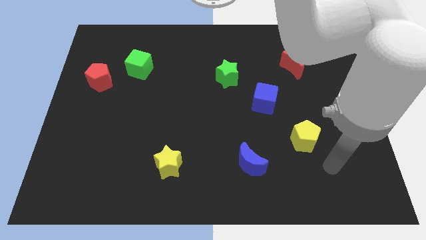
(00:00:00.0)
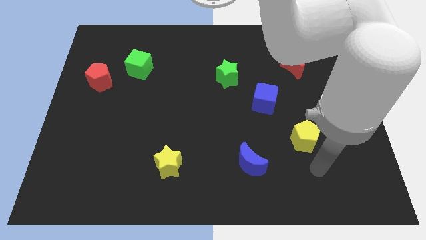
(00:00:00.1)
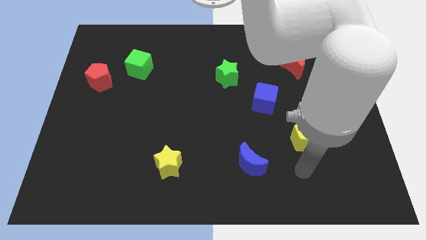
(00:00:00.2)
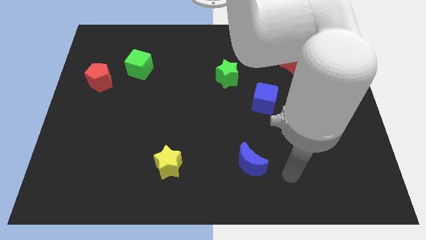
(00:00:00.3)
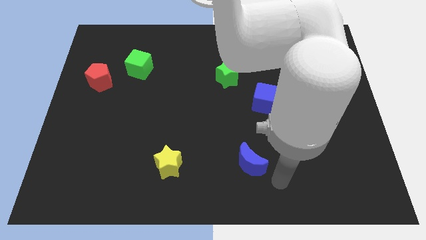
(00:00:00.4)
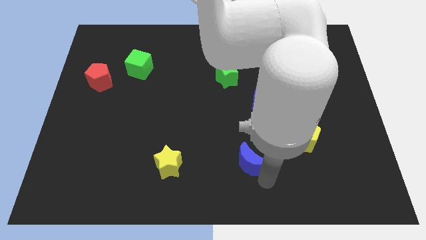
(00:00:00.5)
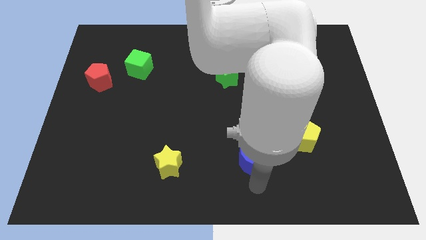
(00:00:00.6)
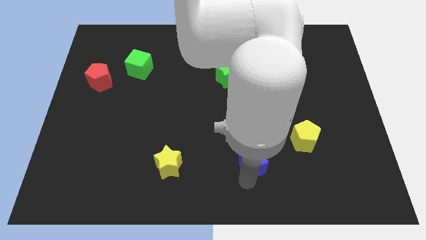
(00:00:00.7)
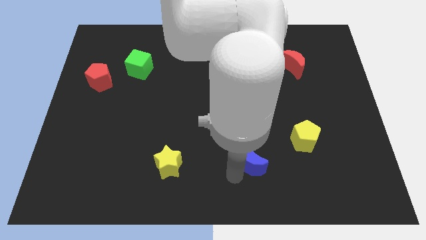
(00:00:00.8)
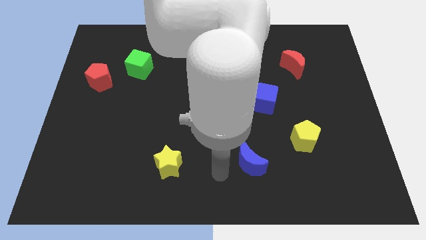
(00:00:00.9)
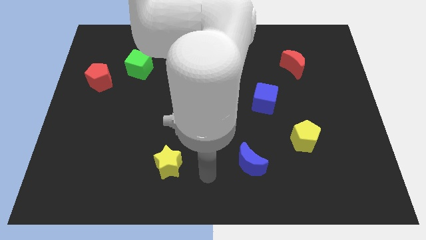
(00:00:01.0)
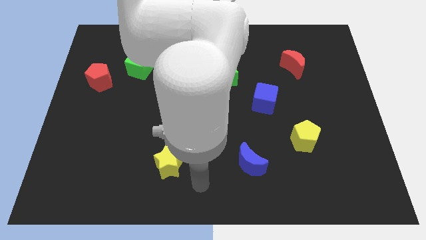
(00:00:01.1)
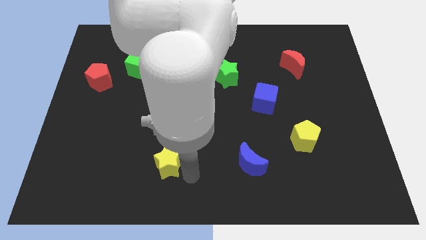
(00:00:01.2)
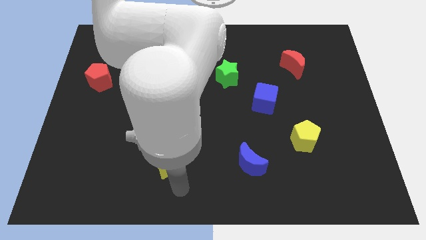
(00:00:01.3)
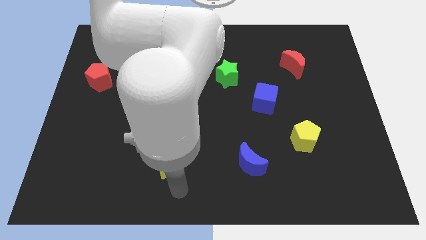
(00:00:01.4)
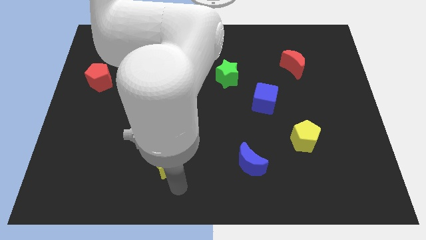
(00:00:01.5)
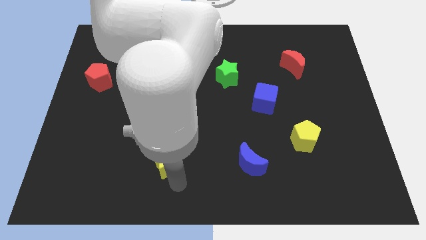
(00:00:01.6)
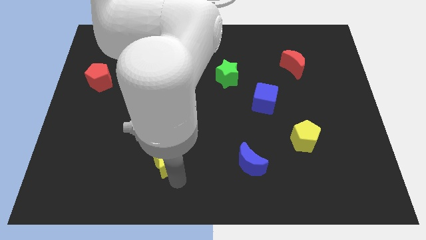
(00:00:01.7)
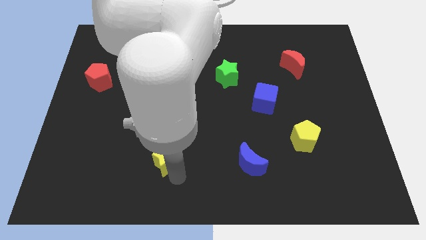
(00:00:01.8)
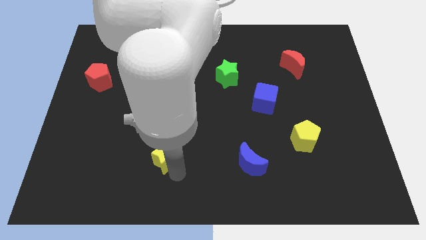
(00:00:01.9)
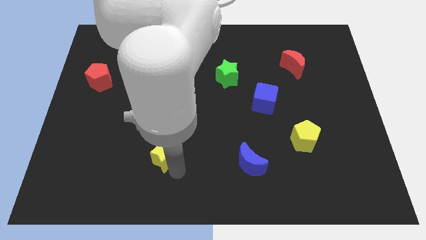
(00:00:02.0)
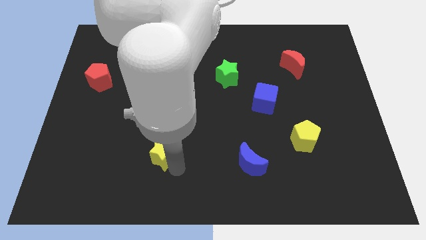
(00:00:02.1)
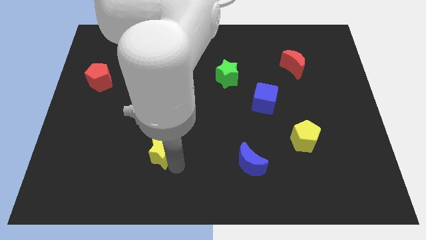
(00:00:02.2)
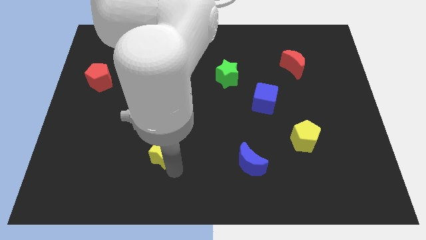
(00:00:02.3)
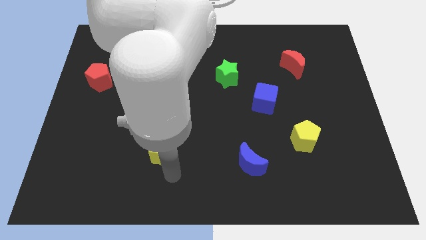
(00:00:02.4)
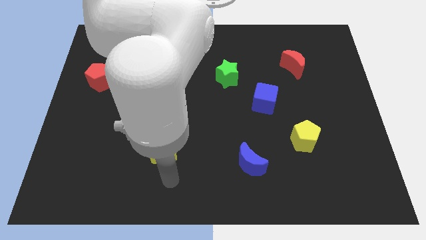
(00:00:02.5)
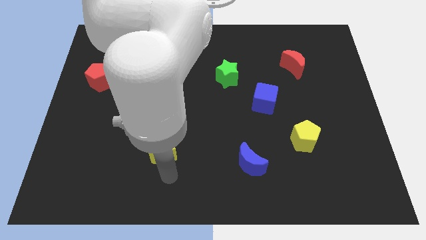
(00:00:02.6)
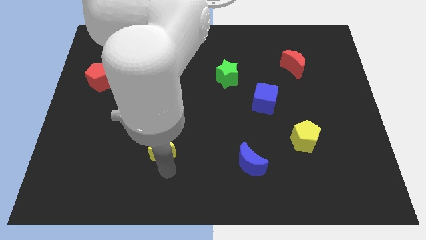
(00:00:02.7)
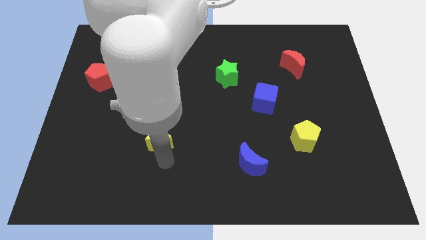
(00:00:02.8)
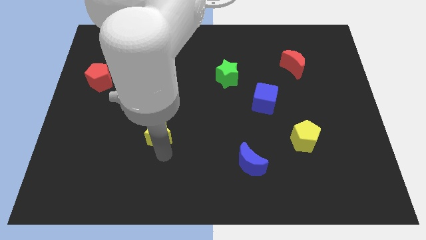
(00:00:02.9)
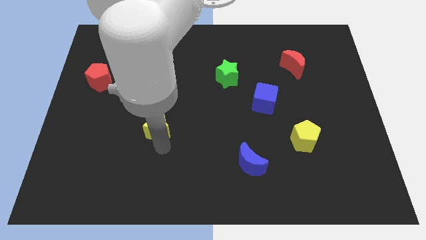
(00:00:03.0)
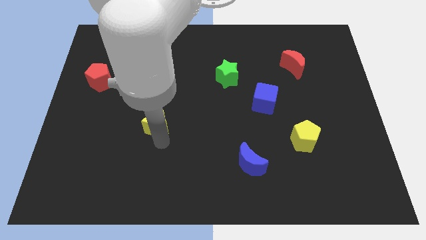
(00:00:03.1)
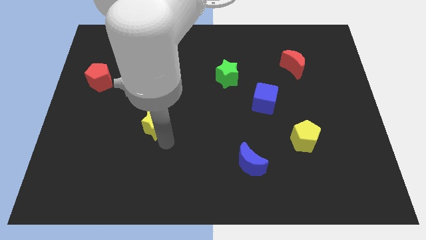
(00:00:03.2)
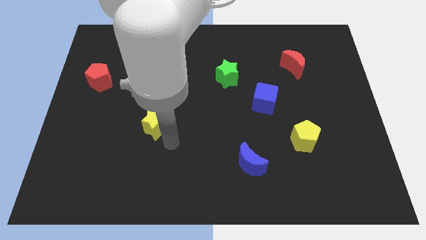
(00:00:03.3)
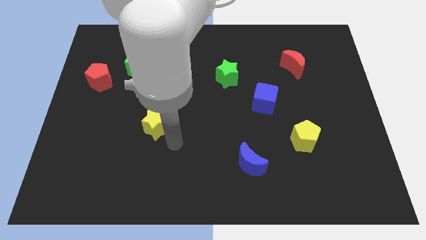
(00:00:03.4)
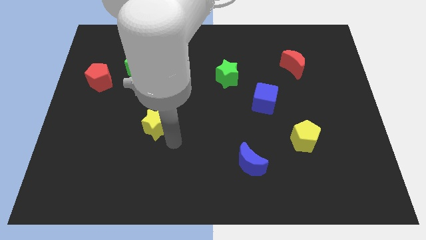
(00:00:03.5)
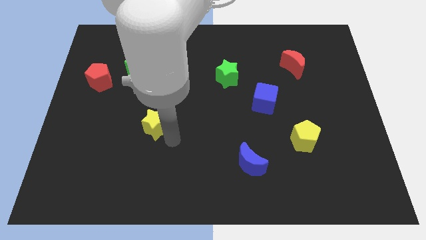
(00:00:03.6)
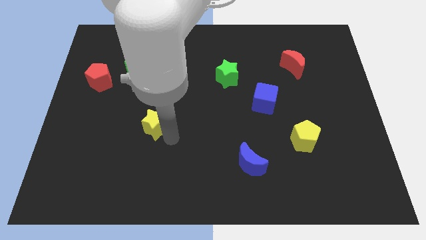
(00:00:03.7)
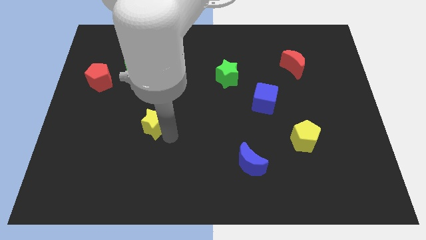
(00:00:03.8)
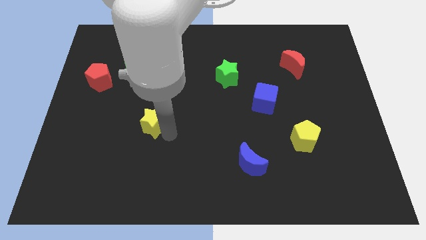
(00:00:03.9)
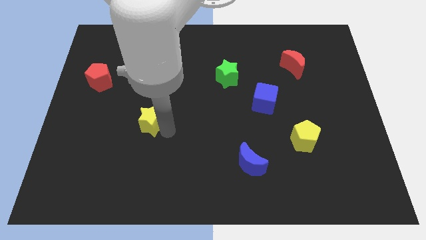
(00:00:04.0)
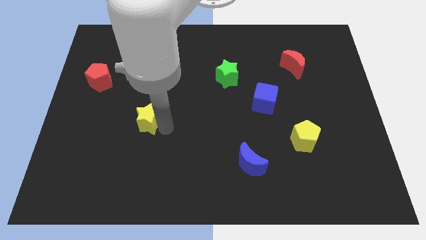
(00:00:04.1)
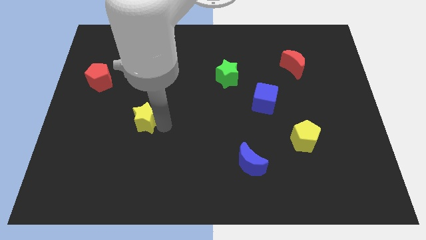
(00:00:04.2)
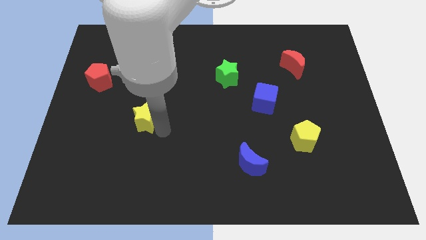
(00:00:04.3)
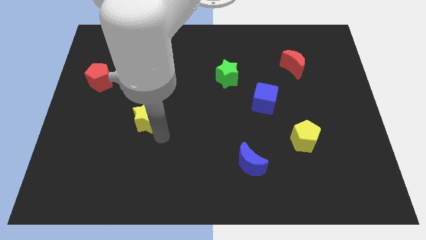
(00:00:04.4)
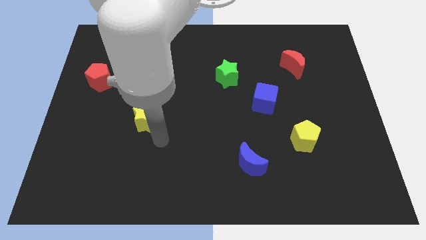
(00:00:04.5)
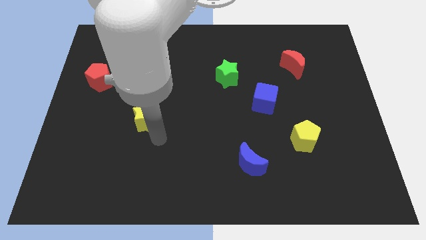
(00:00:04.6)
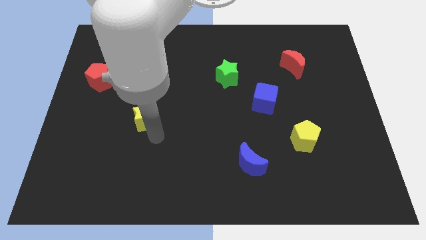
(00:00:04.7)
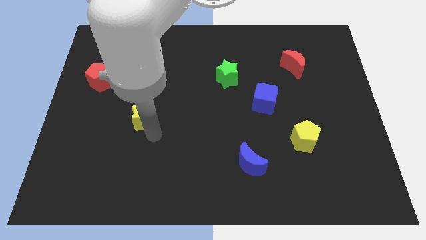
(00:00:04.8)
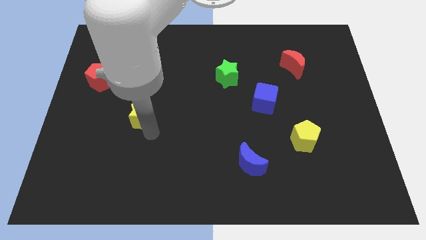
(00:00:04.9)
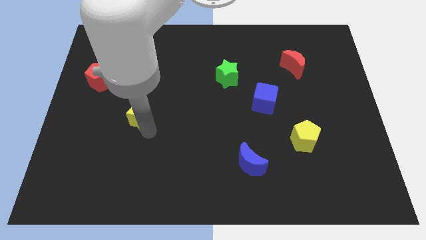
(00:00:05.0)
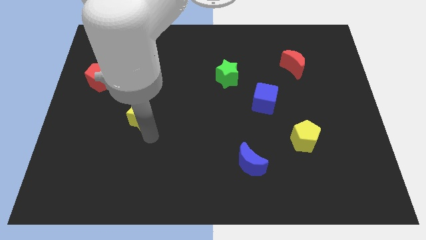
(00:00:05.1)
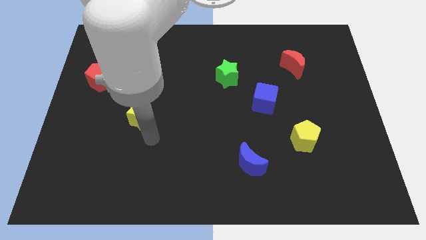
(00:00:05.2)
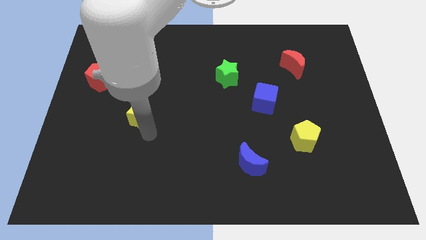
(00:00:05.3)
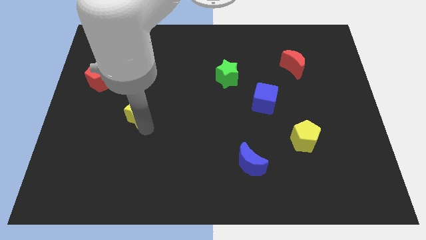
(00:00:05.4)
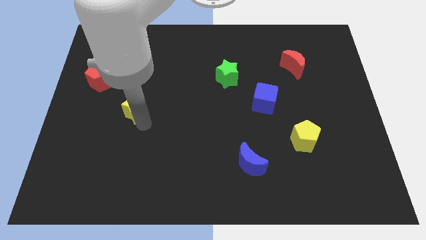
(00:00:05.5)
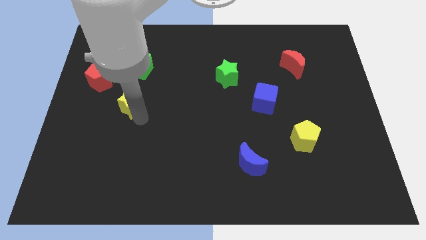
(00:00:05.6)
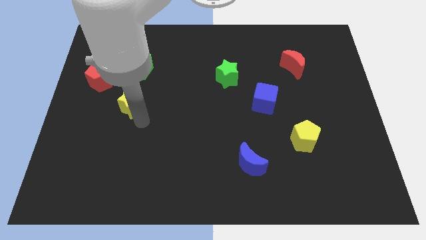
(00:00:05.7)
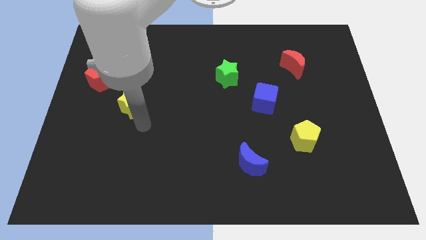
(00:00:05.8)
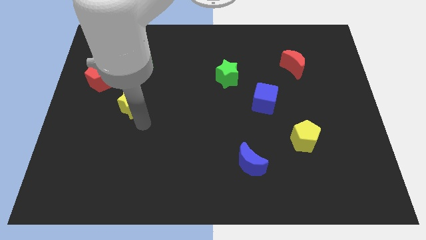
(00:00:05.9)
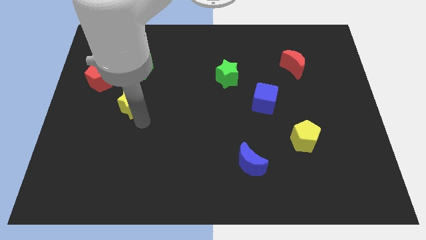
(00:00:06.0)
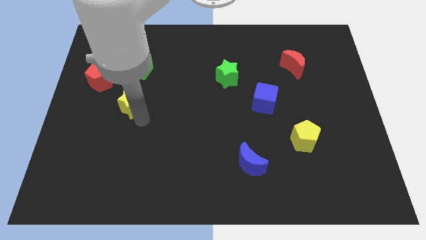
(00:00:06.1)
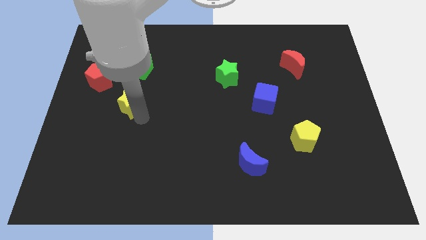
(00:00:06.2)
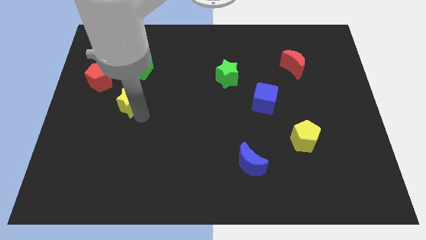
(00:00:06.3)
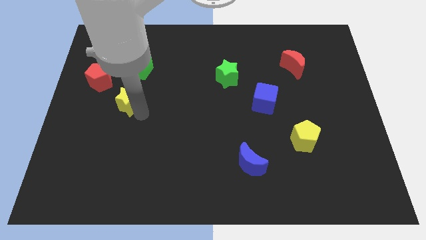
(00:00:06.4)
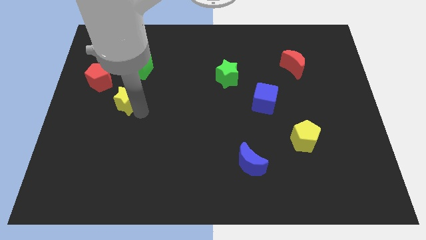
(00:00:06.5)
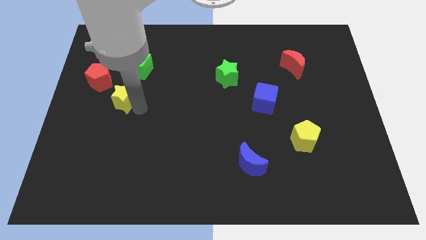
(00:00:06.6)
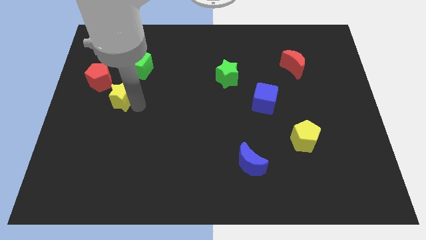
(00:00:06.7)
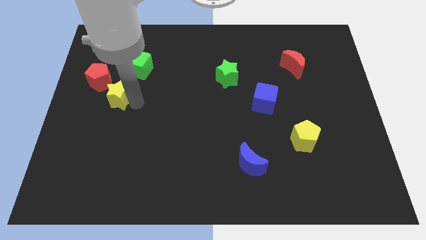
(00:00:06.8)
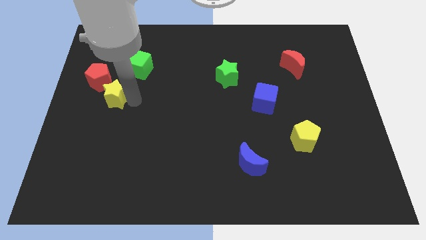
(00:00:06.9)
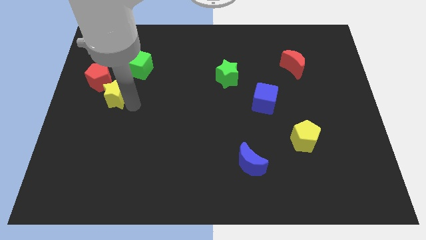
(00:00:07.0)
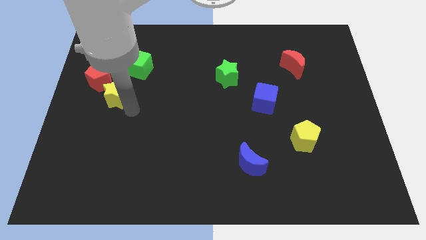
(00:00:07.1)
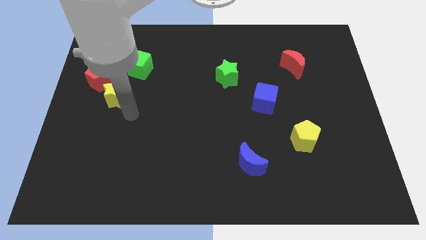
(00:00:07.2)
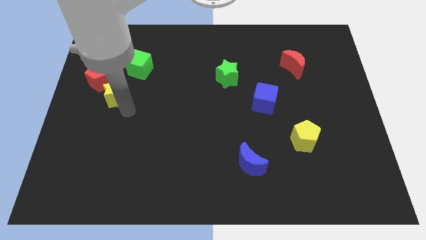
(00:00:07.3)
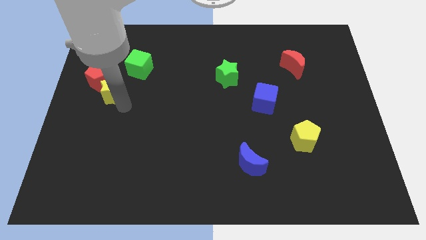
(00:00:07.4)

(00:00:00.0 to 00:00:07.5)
move the yellow star to the red pentagon
